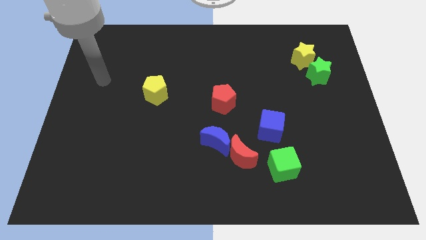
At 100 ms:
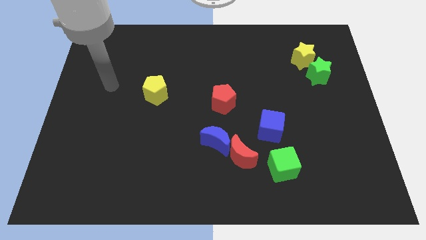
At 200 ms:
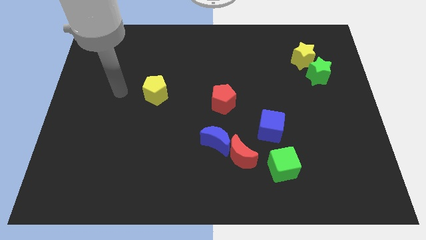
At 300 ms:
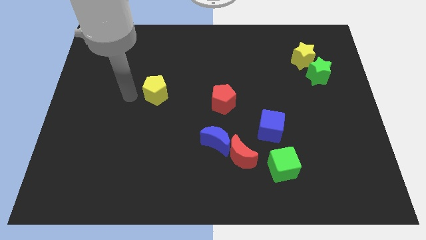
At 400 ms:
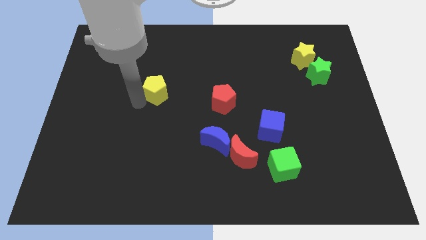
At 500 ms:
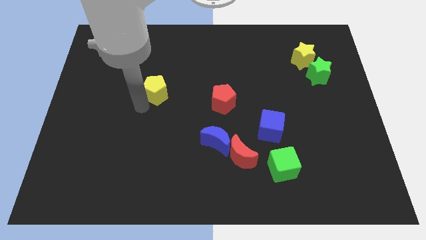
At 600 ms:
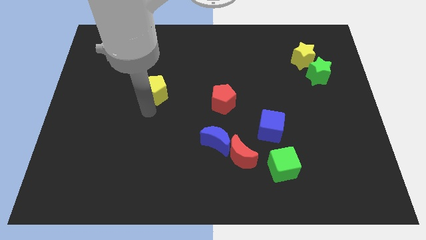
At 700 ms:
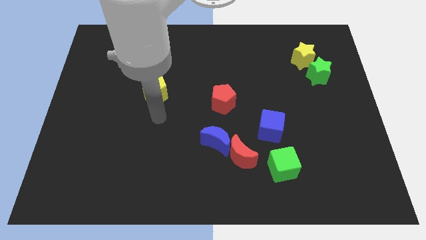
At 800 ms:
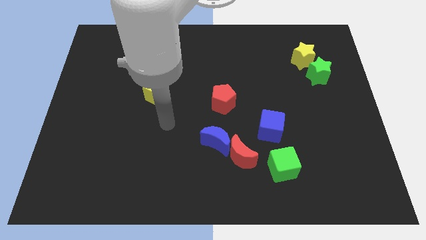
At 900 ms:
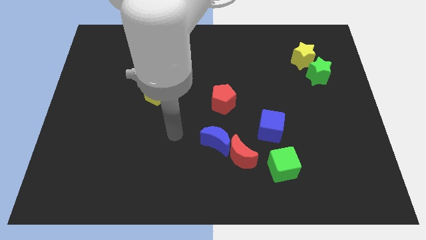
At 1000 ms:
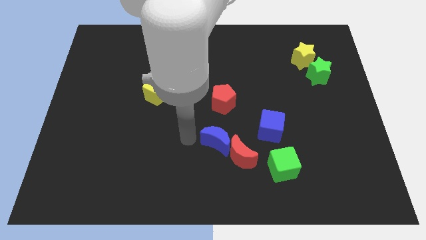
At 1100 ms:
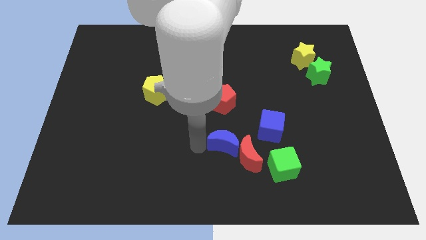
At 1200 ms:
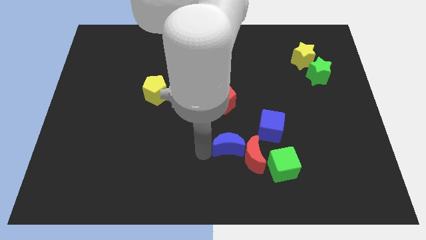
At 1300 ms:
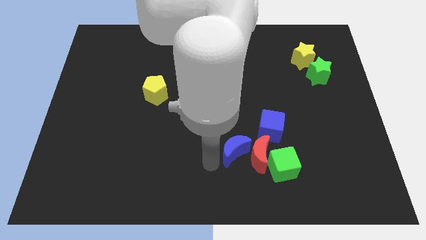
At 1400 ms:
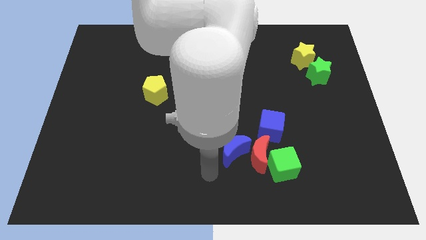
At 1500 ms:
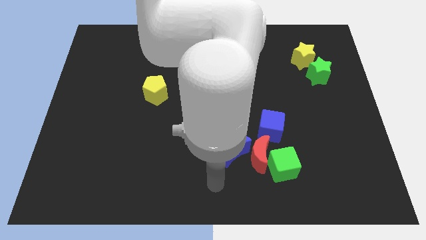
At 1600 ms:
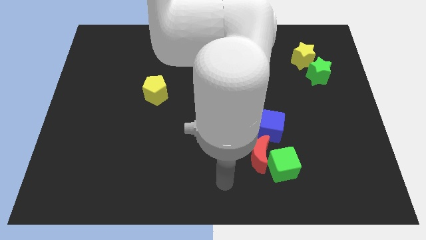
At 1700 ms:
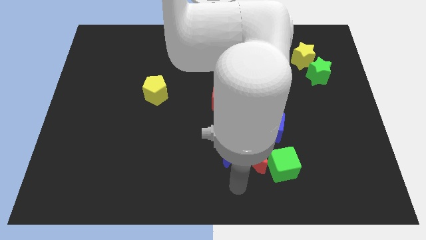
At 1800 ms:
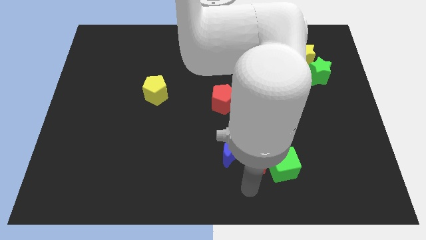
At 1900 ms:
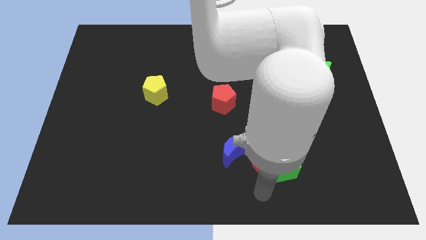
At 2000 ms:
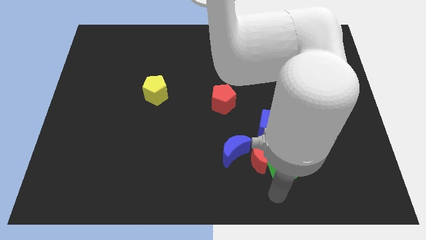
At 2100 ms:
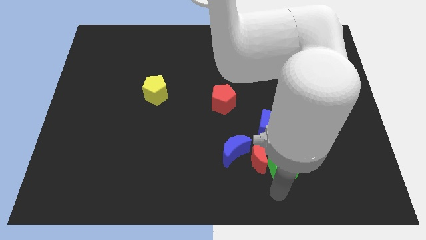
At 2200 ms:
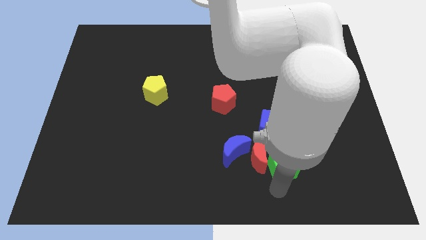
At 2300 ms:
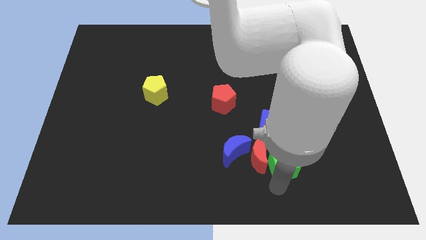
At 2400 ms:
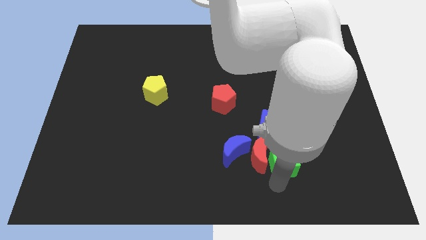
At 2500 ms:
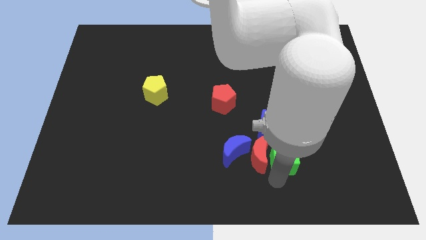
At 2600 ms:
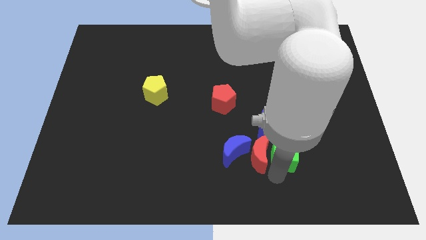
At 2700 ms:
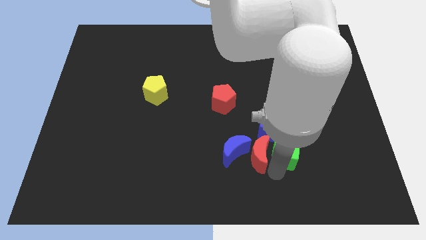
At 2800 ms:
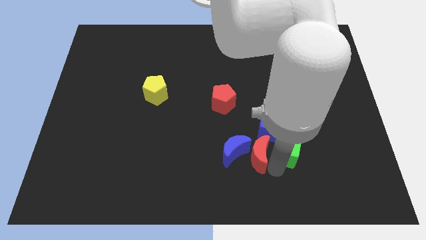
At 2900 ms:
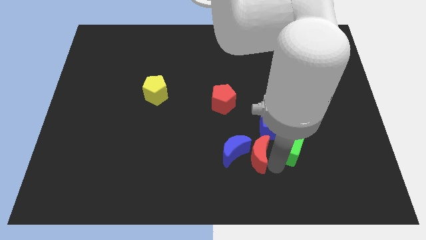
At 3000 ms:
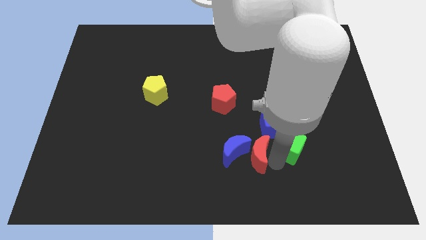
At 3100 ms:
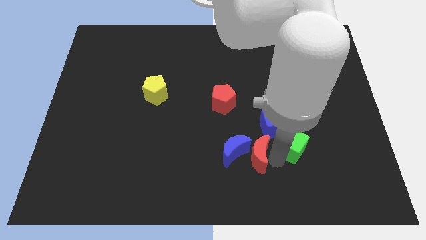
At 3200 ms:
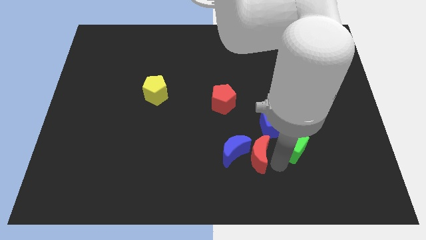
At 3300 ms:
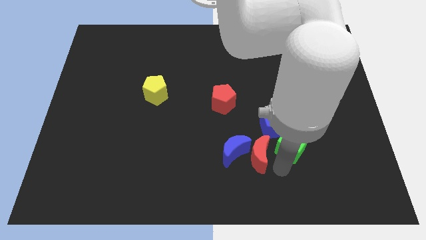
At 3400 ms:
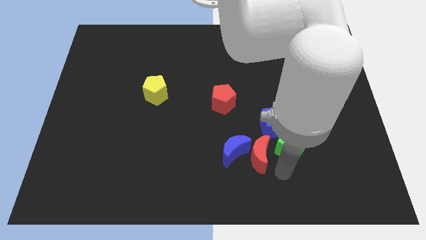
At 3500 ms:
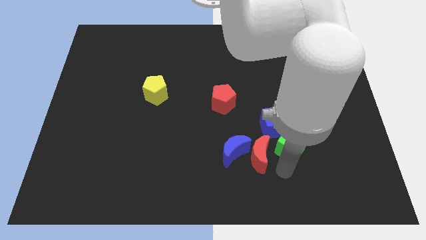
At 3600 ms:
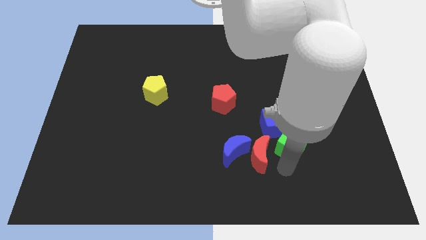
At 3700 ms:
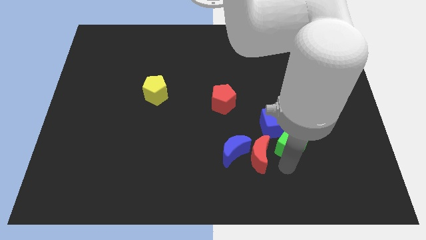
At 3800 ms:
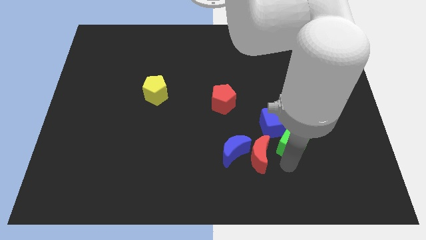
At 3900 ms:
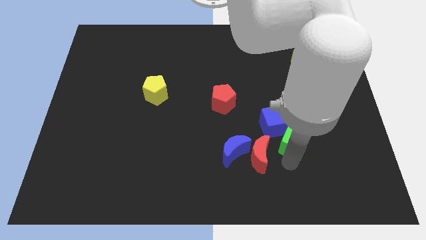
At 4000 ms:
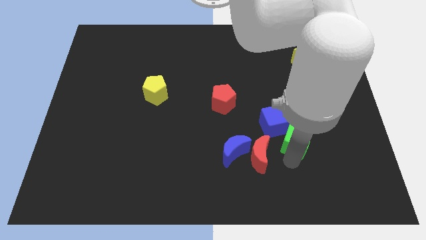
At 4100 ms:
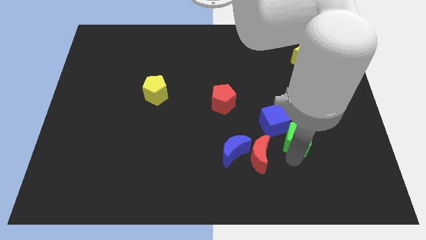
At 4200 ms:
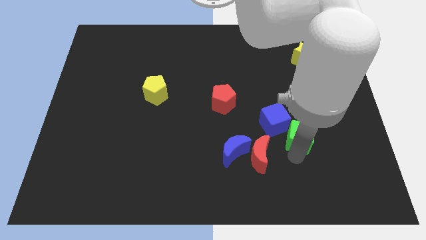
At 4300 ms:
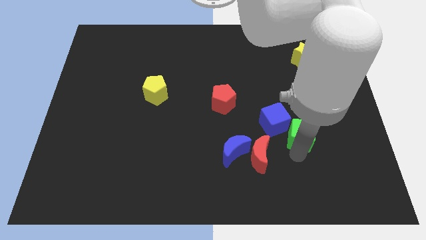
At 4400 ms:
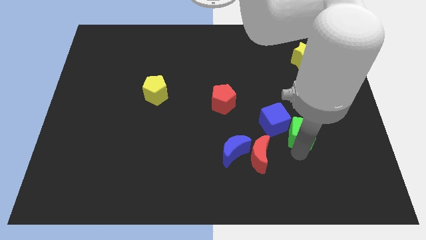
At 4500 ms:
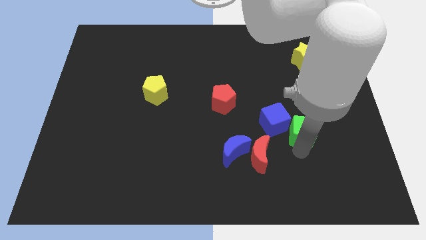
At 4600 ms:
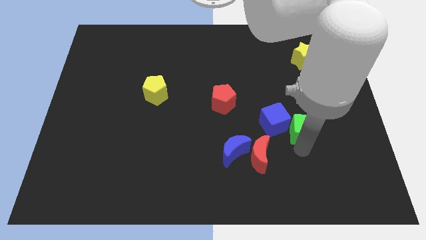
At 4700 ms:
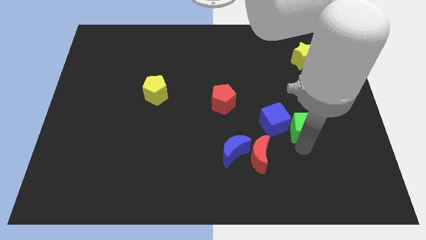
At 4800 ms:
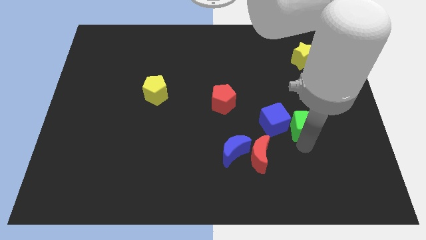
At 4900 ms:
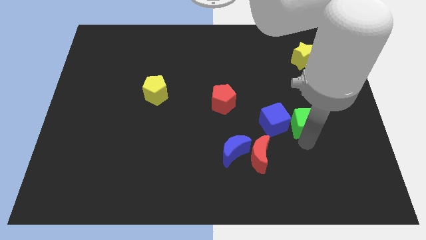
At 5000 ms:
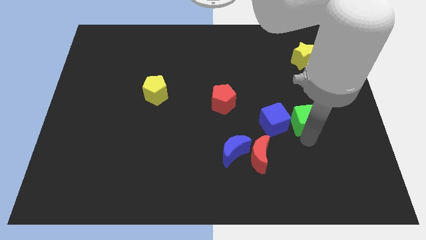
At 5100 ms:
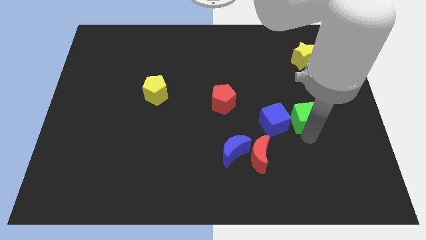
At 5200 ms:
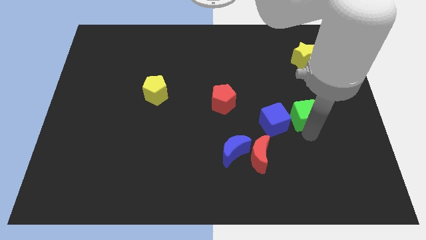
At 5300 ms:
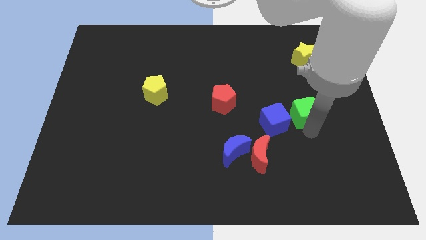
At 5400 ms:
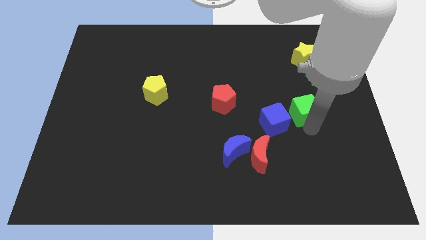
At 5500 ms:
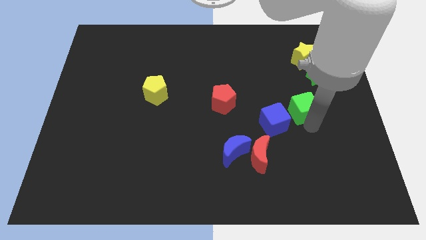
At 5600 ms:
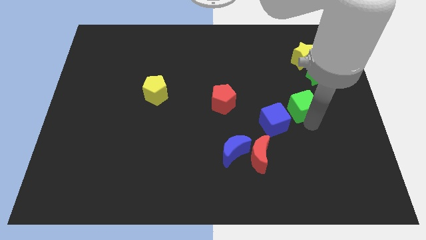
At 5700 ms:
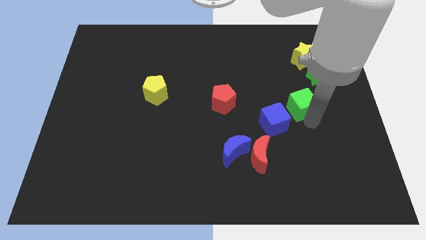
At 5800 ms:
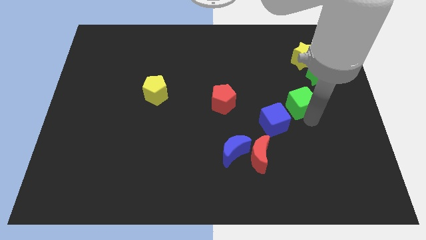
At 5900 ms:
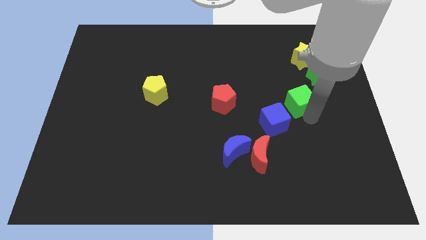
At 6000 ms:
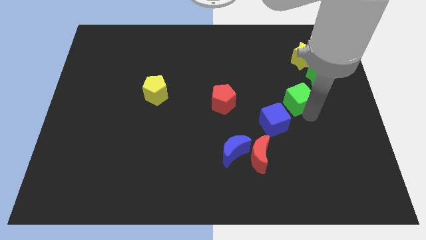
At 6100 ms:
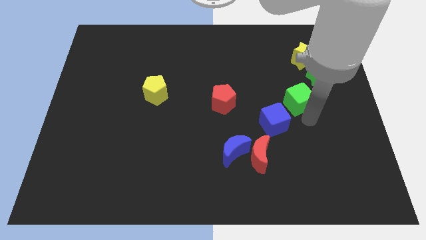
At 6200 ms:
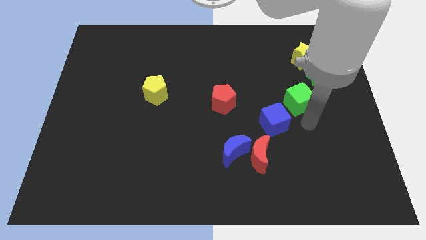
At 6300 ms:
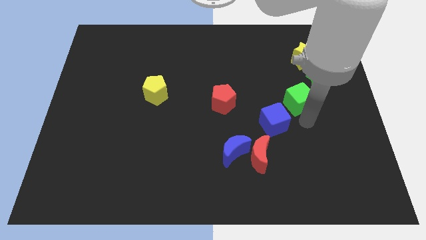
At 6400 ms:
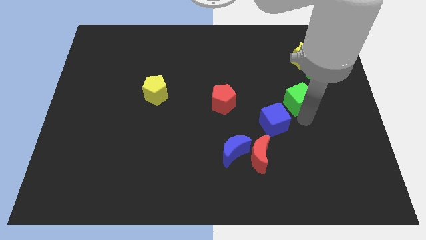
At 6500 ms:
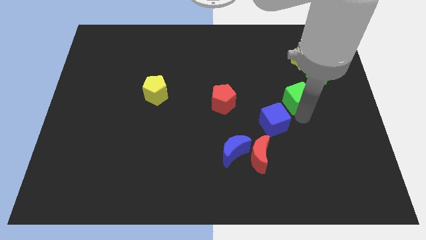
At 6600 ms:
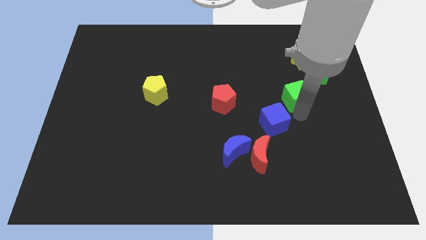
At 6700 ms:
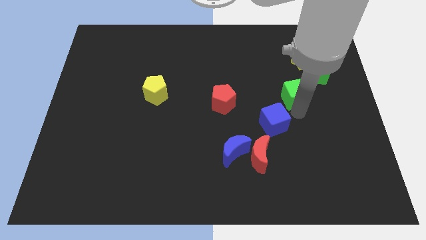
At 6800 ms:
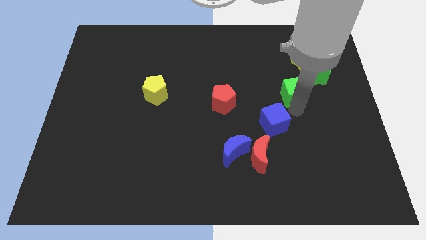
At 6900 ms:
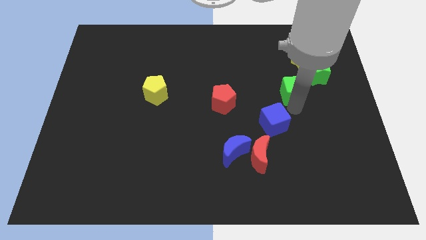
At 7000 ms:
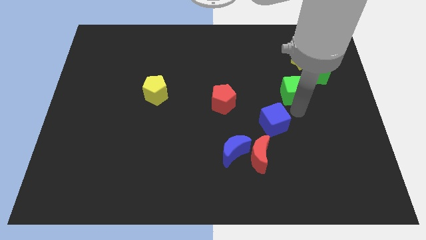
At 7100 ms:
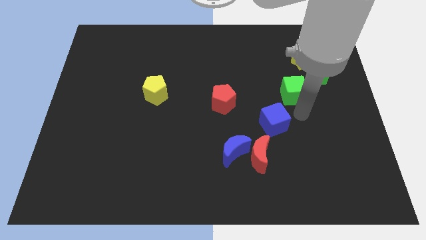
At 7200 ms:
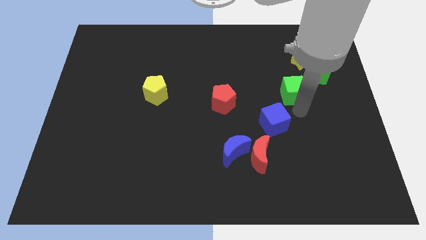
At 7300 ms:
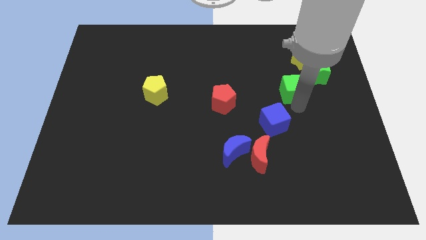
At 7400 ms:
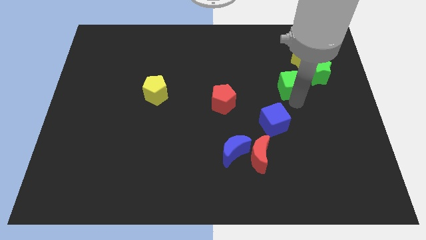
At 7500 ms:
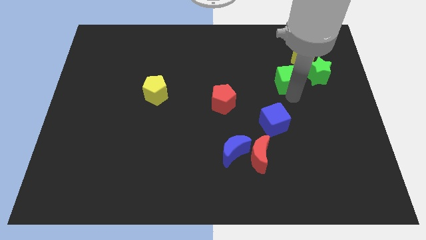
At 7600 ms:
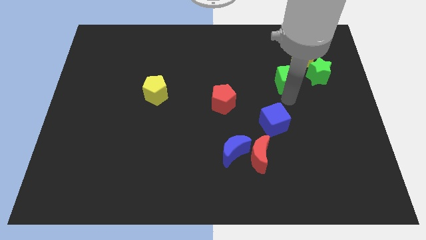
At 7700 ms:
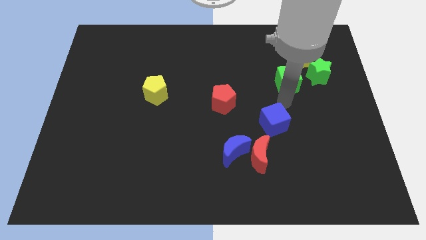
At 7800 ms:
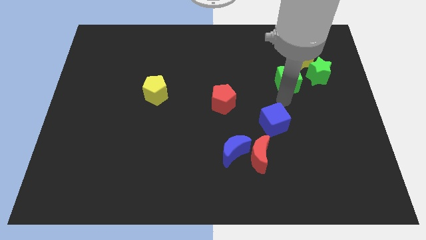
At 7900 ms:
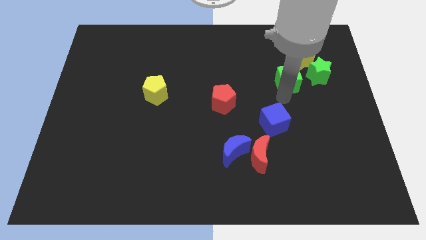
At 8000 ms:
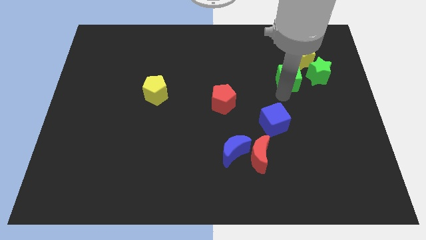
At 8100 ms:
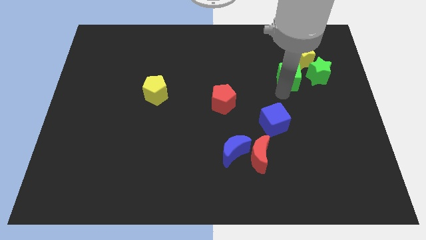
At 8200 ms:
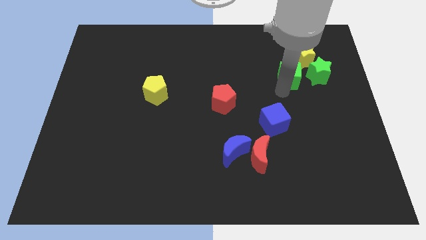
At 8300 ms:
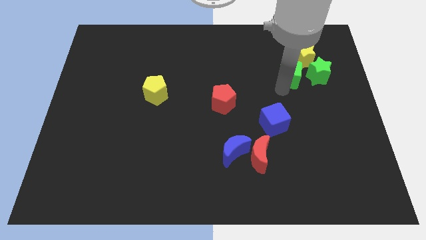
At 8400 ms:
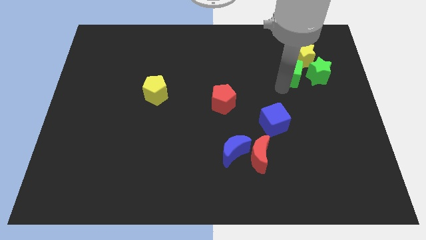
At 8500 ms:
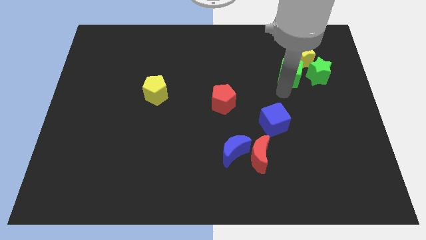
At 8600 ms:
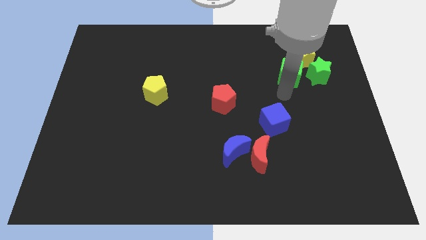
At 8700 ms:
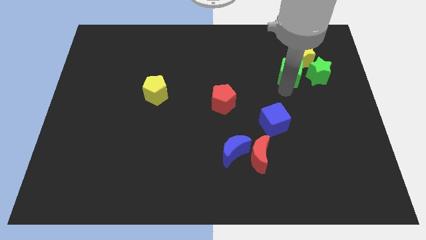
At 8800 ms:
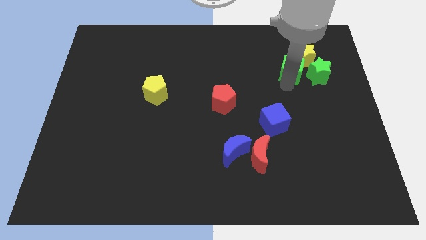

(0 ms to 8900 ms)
put the green cube to the top left of the green star
